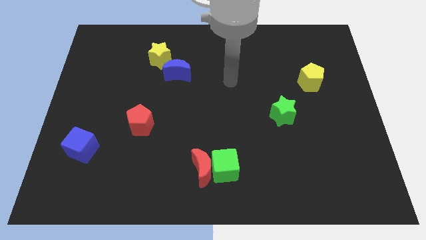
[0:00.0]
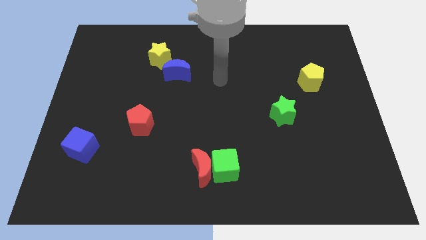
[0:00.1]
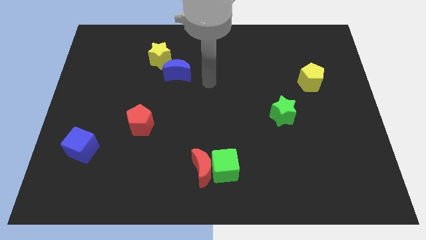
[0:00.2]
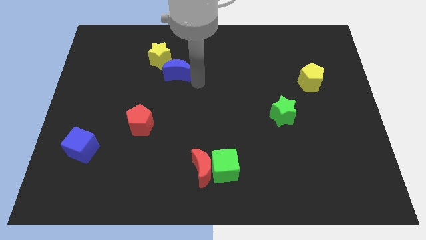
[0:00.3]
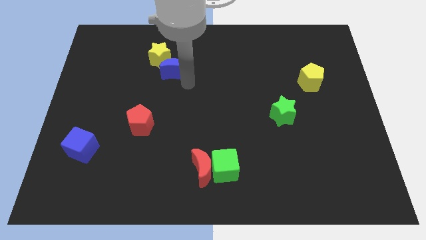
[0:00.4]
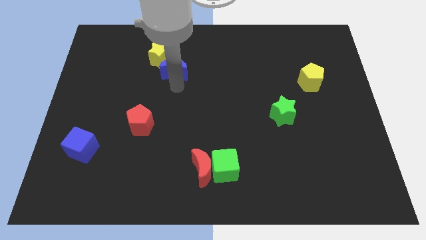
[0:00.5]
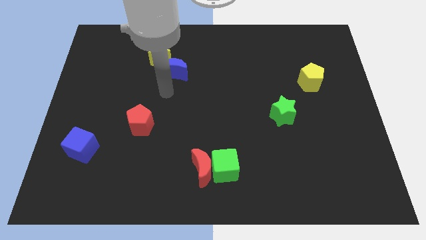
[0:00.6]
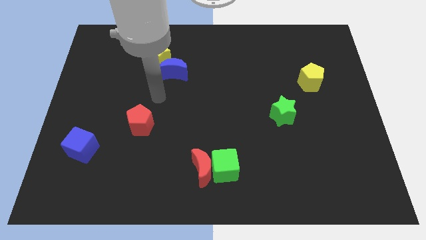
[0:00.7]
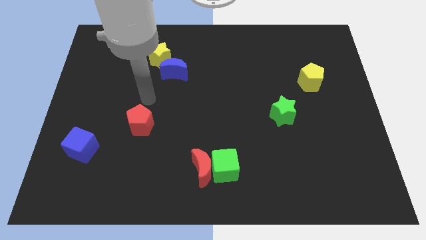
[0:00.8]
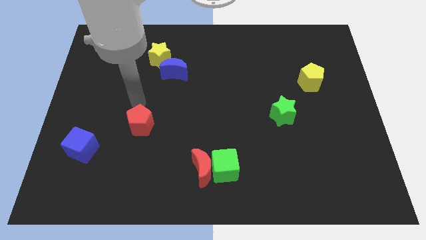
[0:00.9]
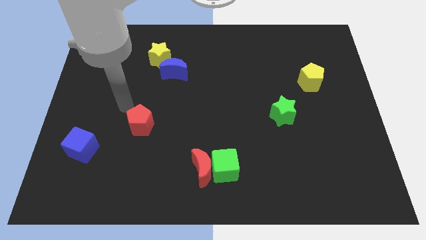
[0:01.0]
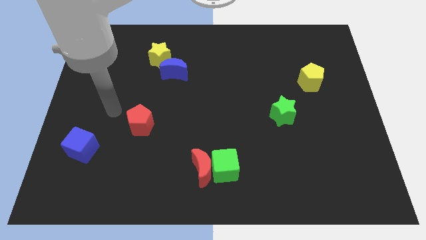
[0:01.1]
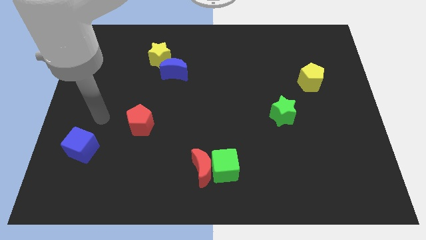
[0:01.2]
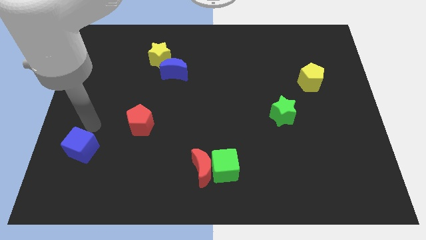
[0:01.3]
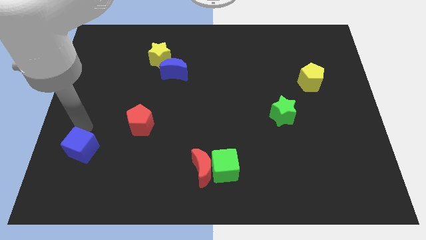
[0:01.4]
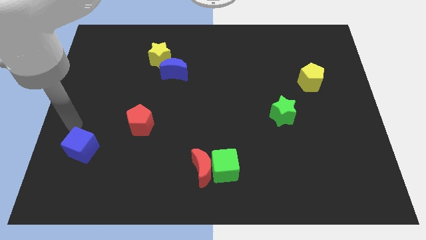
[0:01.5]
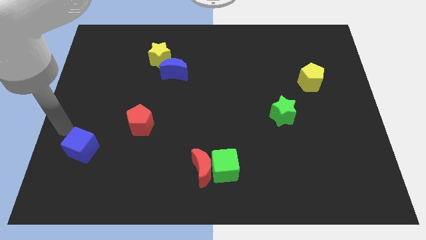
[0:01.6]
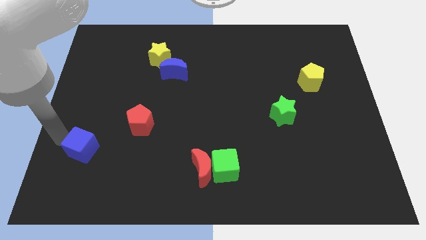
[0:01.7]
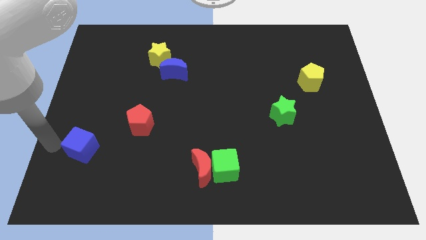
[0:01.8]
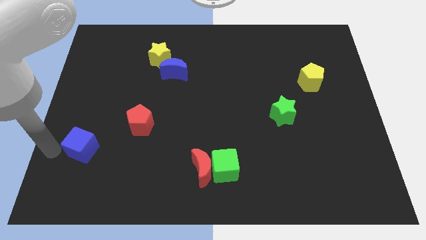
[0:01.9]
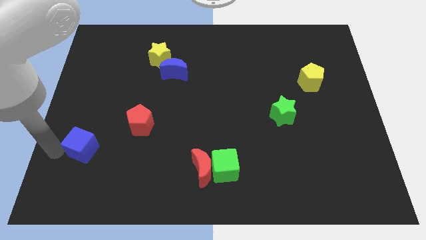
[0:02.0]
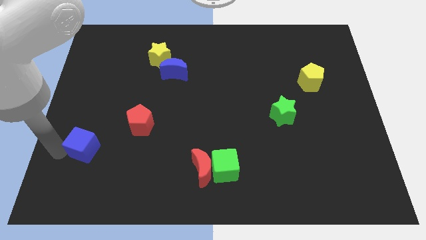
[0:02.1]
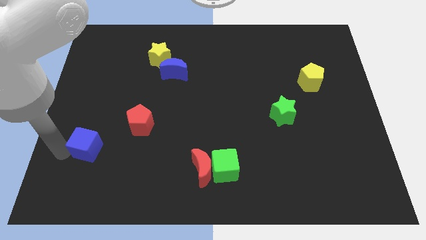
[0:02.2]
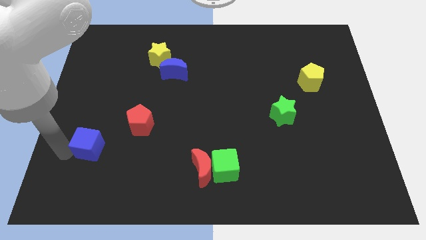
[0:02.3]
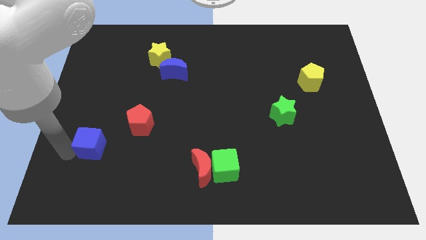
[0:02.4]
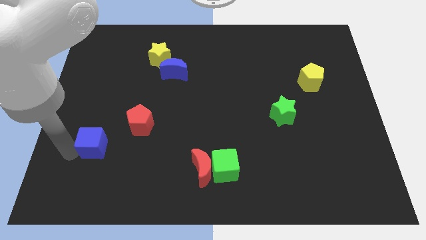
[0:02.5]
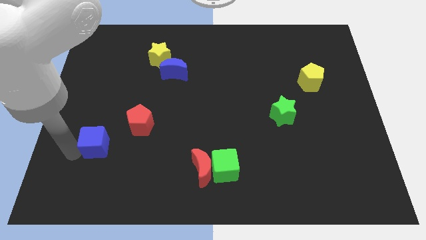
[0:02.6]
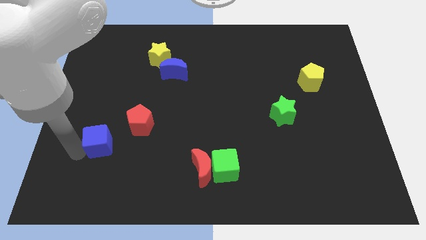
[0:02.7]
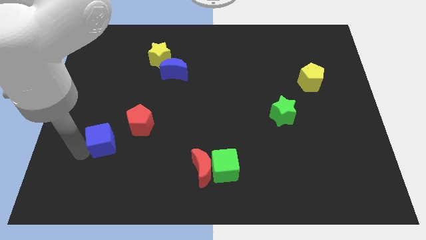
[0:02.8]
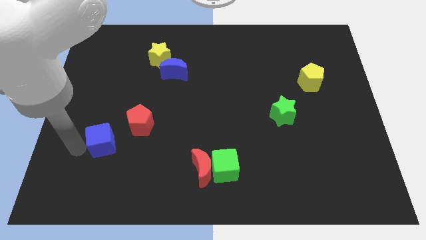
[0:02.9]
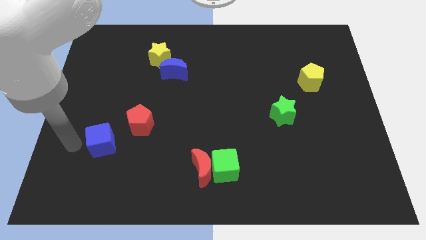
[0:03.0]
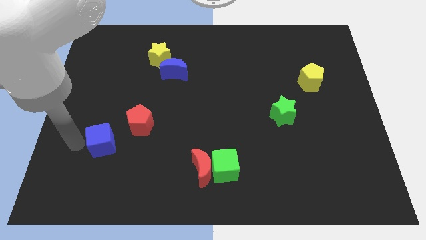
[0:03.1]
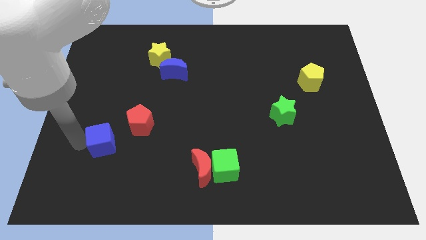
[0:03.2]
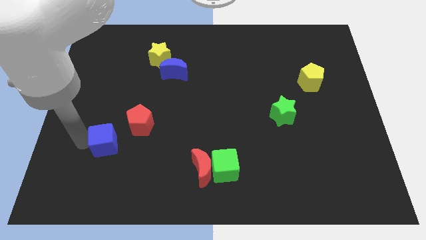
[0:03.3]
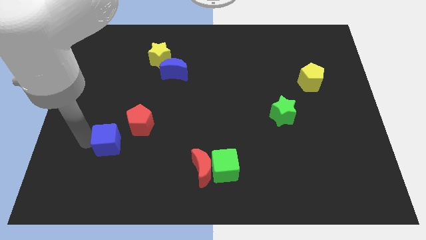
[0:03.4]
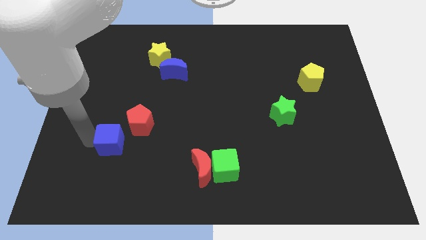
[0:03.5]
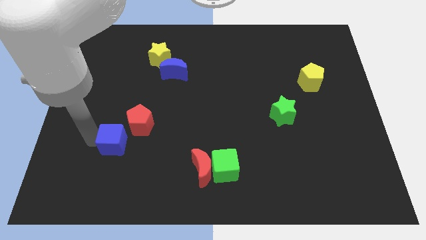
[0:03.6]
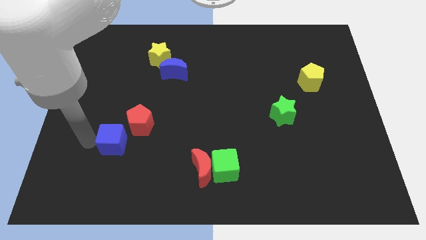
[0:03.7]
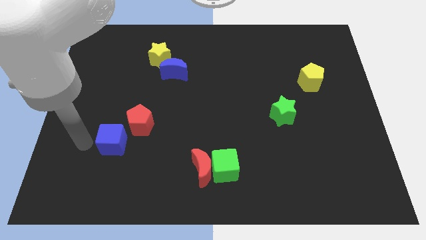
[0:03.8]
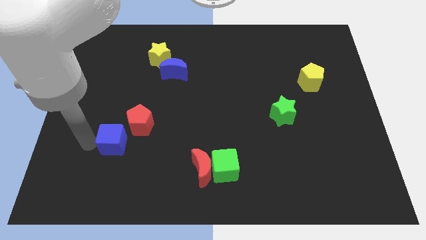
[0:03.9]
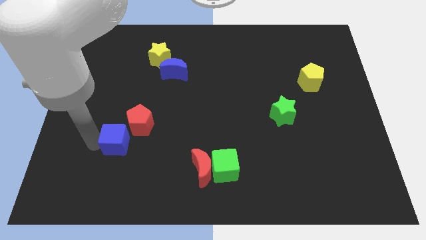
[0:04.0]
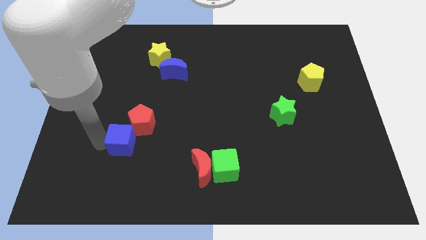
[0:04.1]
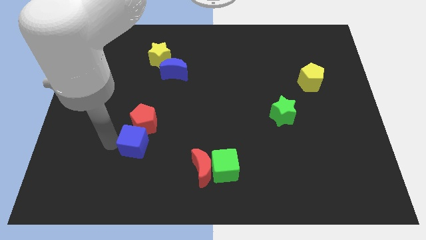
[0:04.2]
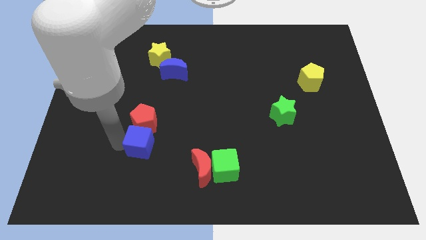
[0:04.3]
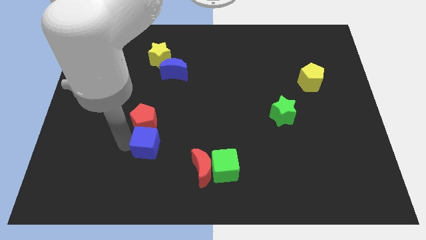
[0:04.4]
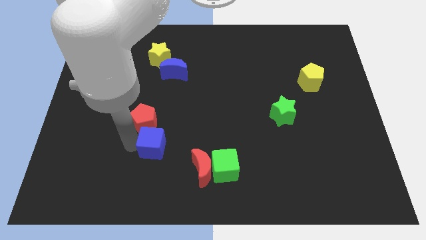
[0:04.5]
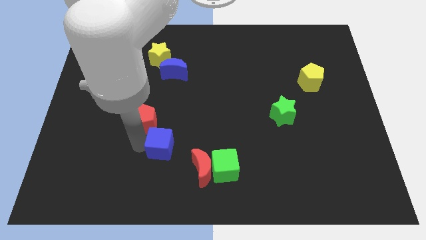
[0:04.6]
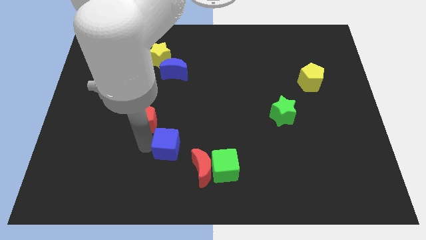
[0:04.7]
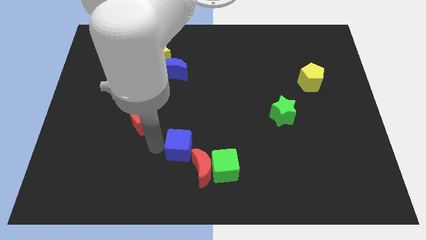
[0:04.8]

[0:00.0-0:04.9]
move the blue cube right

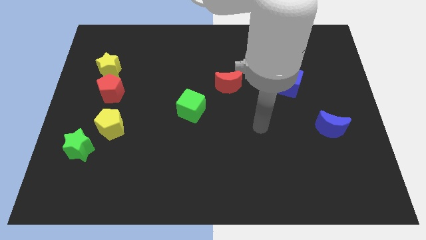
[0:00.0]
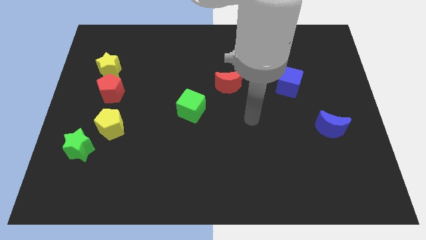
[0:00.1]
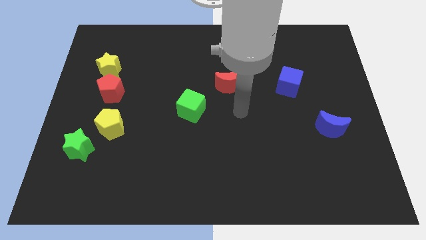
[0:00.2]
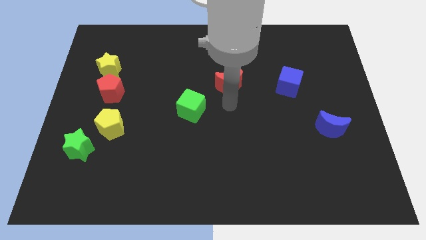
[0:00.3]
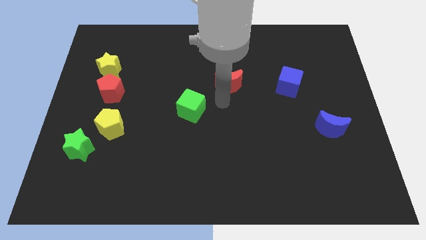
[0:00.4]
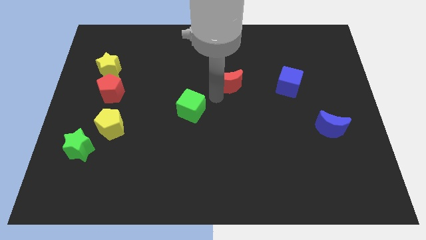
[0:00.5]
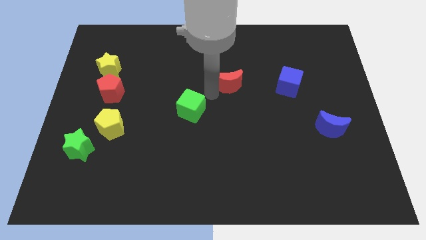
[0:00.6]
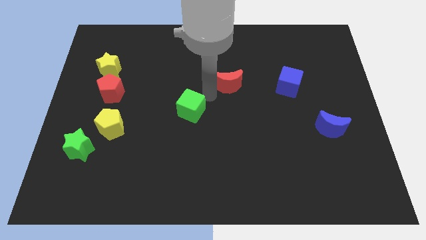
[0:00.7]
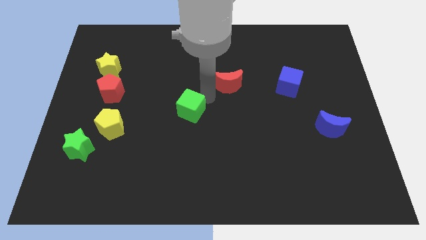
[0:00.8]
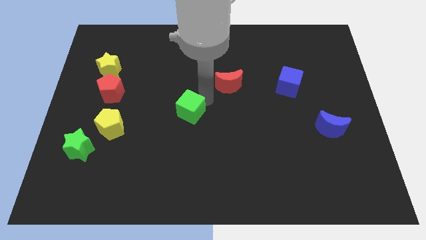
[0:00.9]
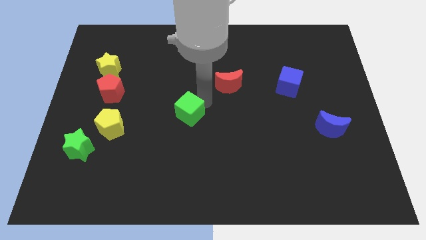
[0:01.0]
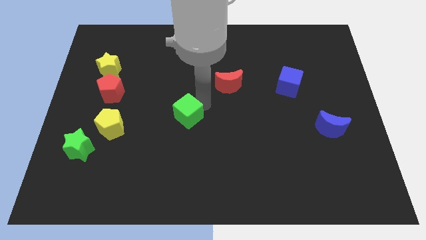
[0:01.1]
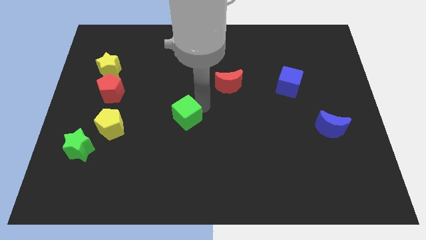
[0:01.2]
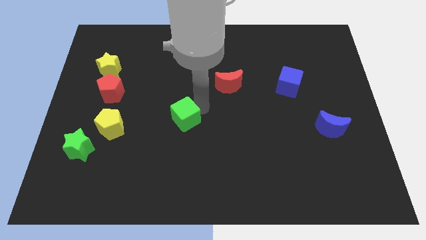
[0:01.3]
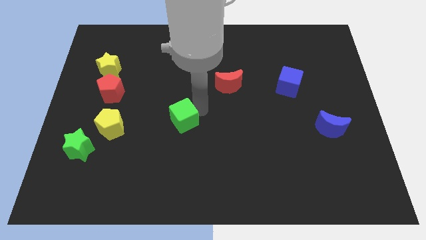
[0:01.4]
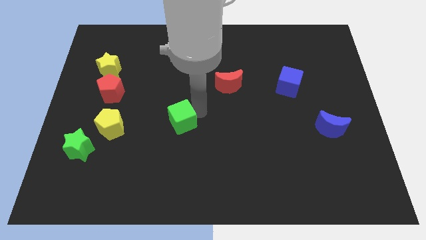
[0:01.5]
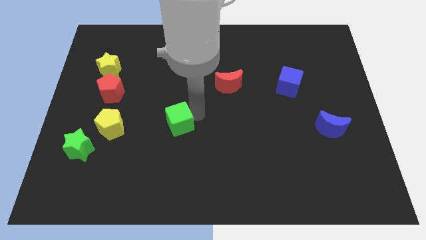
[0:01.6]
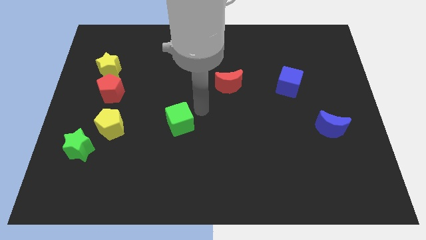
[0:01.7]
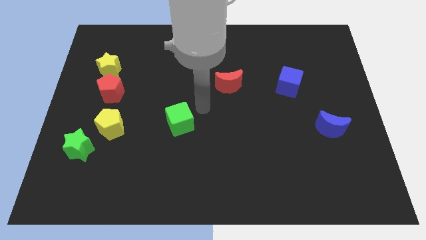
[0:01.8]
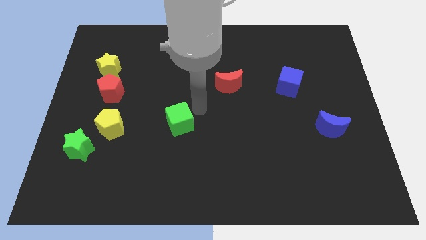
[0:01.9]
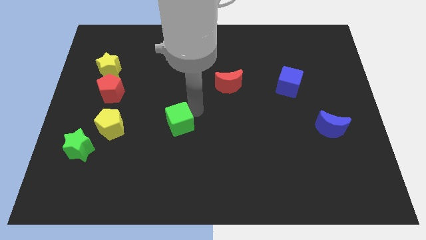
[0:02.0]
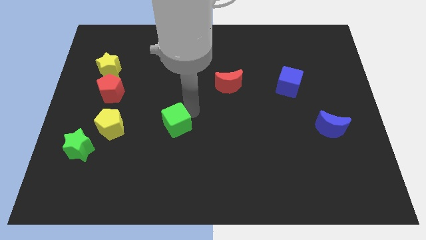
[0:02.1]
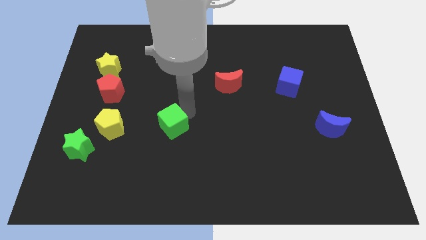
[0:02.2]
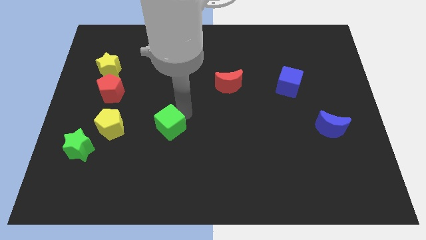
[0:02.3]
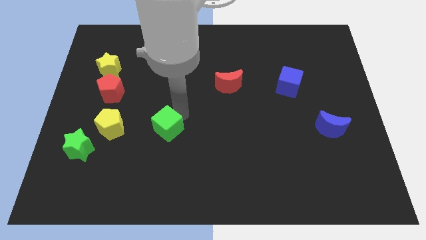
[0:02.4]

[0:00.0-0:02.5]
slide the green cube a bit downwards and to the left

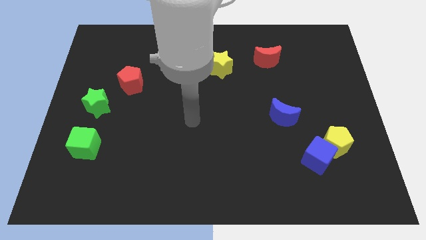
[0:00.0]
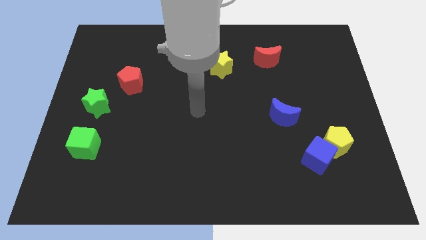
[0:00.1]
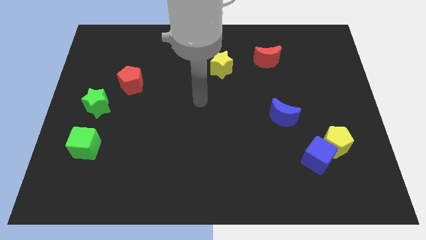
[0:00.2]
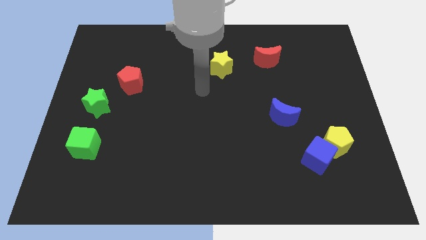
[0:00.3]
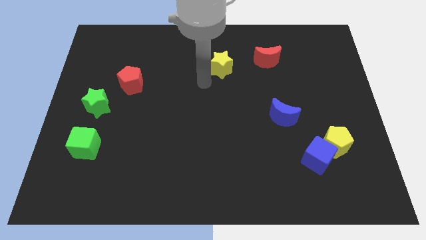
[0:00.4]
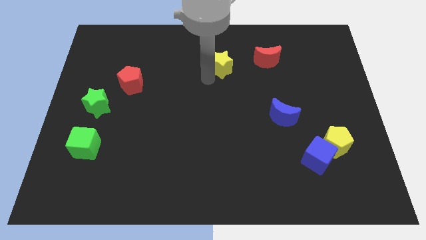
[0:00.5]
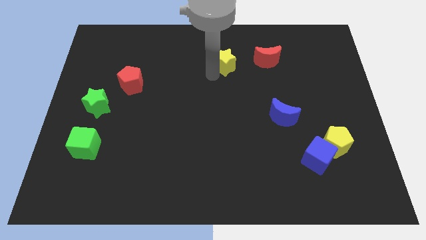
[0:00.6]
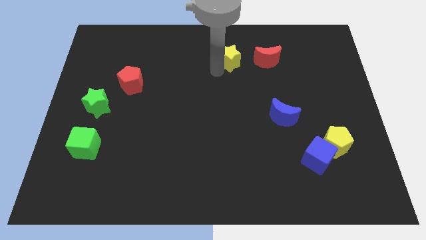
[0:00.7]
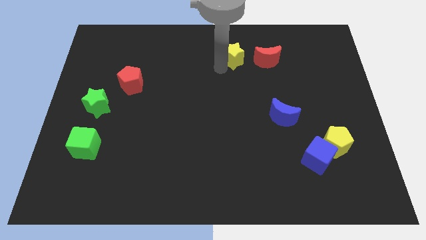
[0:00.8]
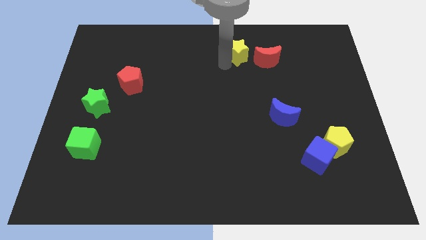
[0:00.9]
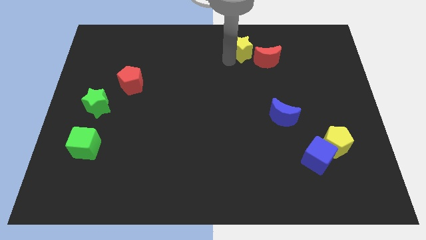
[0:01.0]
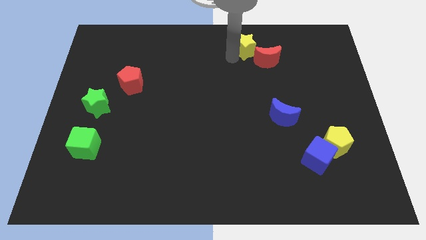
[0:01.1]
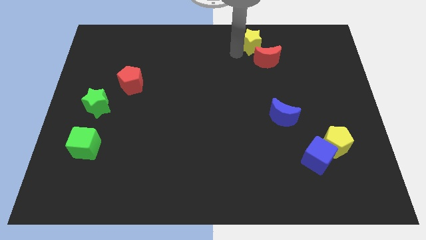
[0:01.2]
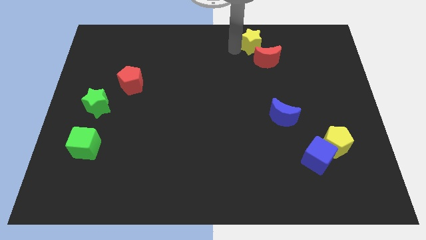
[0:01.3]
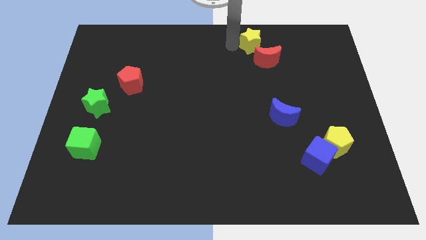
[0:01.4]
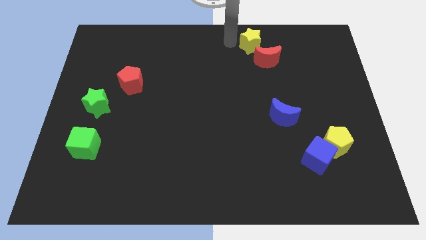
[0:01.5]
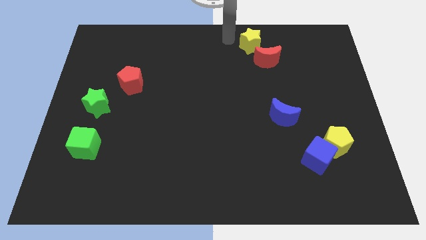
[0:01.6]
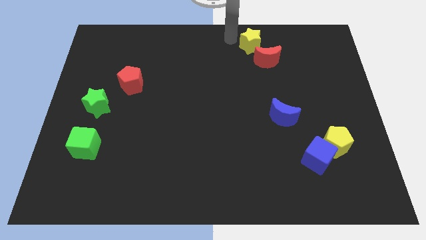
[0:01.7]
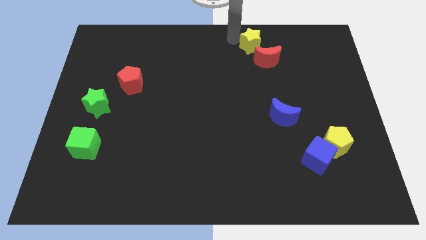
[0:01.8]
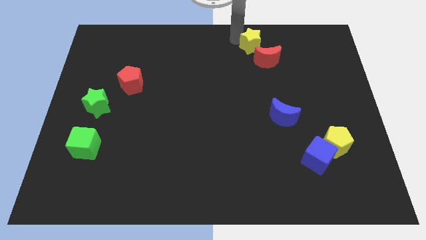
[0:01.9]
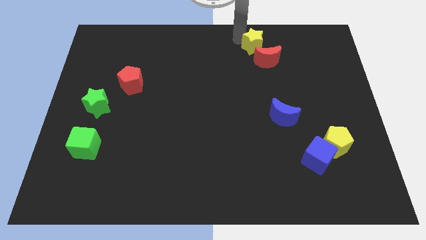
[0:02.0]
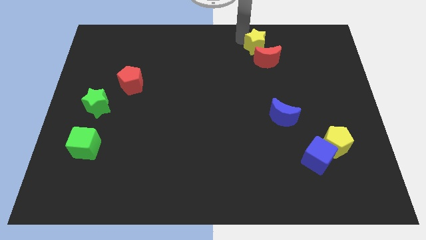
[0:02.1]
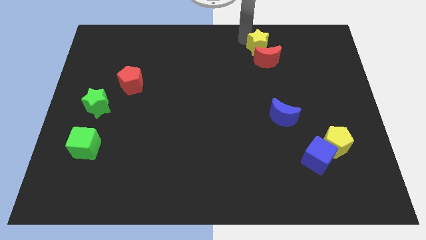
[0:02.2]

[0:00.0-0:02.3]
slightly move the yellow star right
